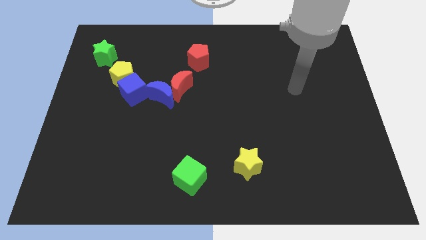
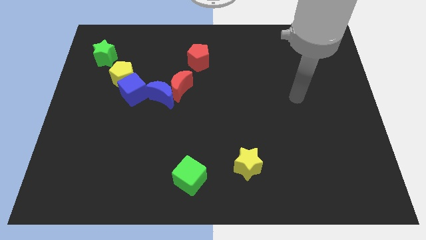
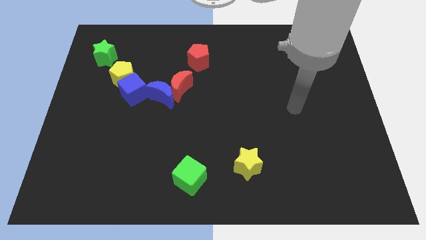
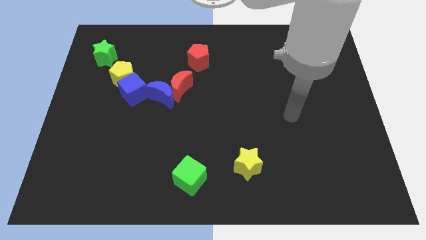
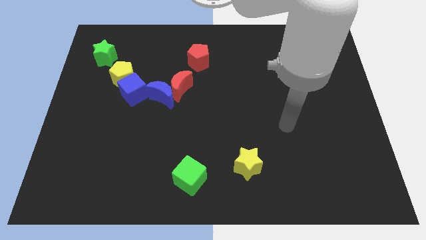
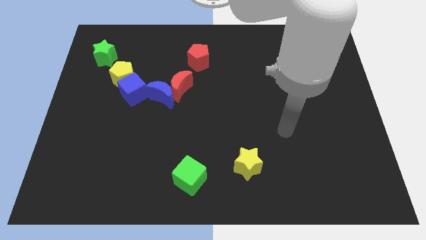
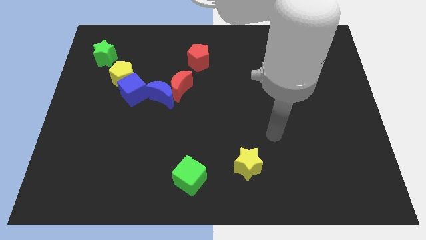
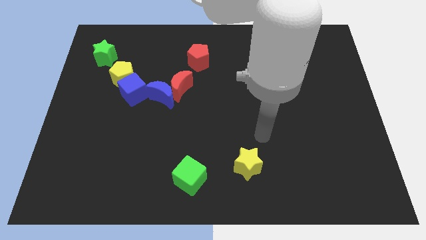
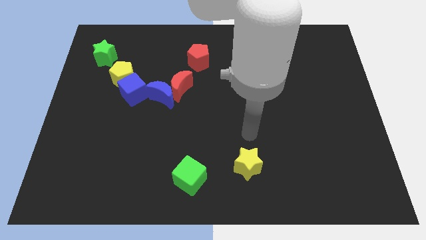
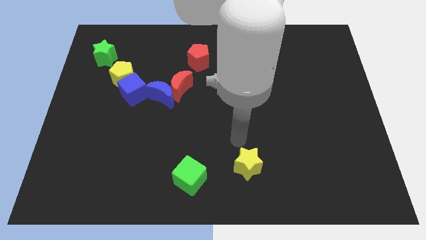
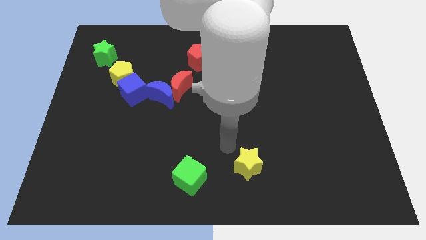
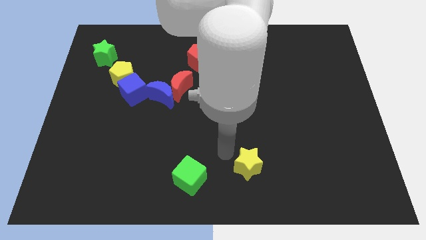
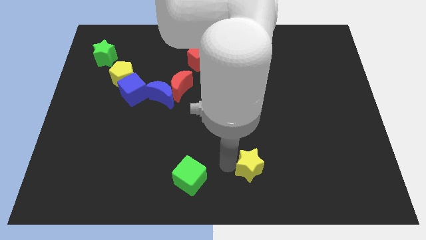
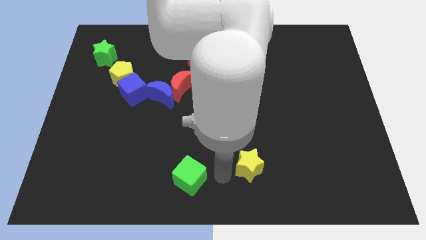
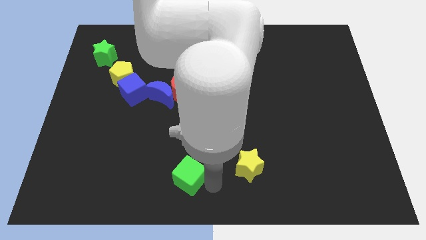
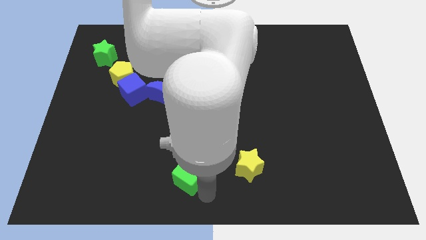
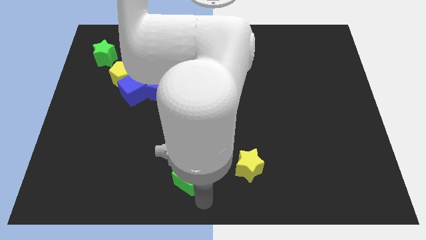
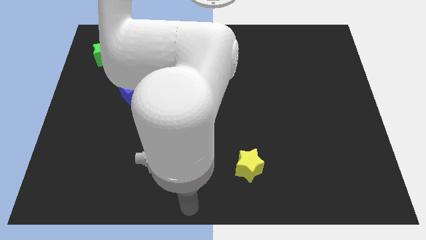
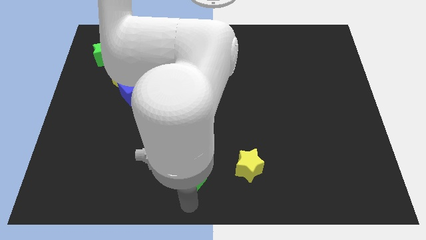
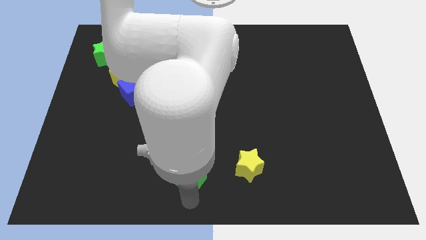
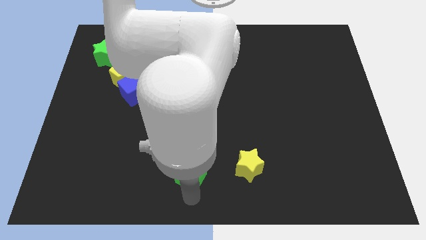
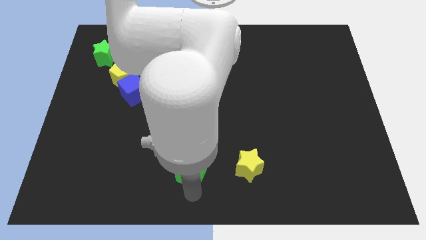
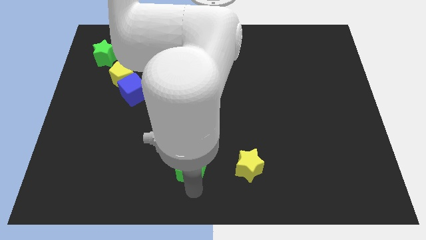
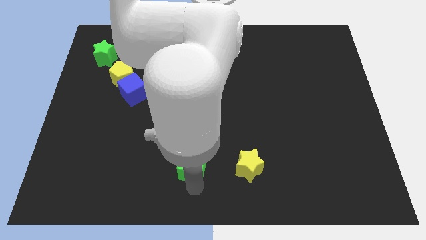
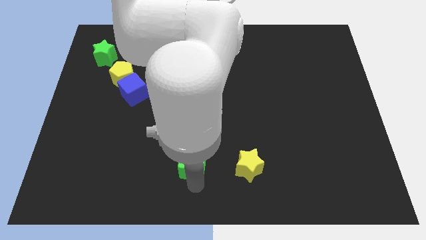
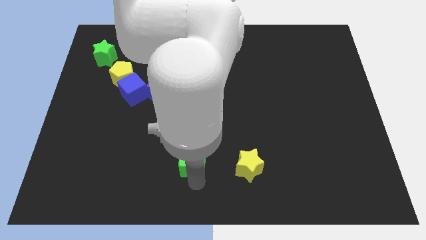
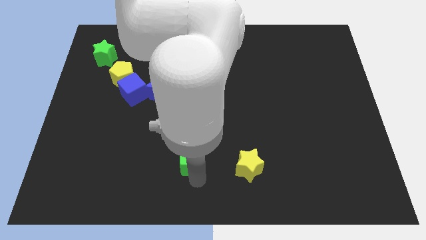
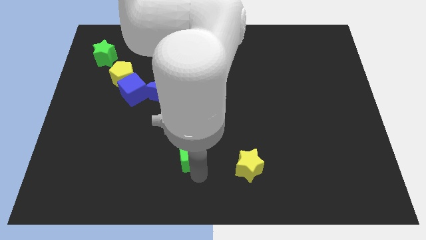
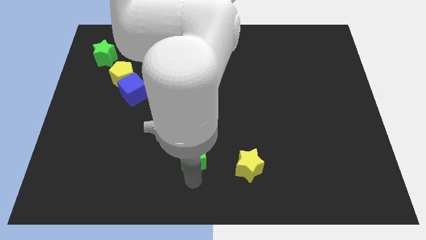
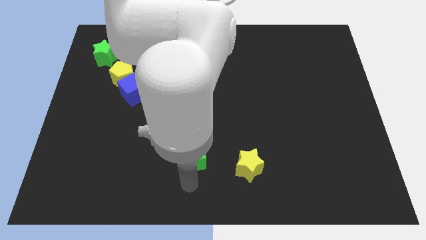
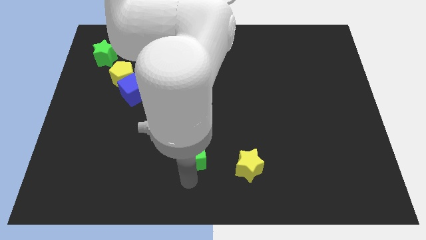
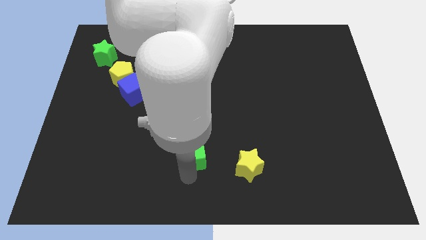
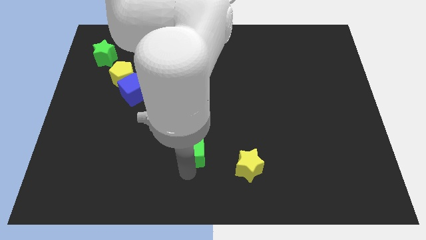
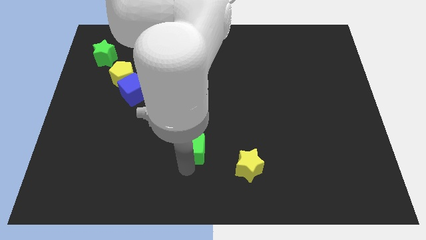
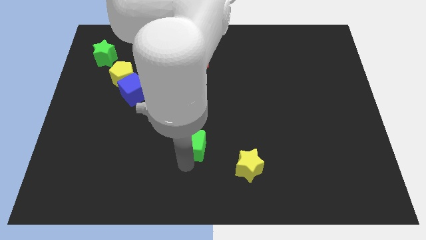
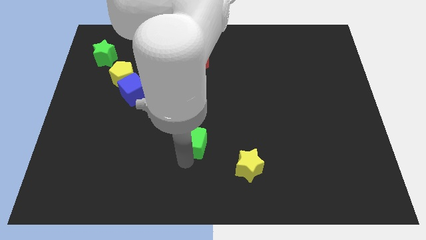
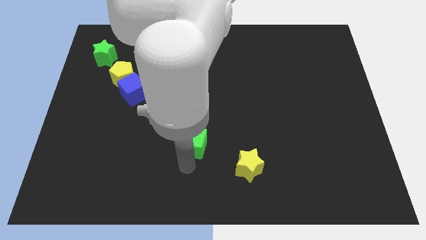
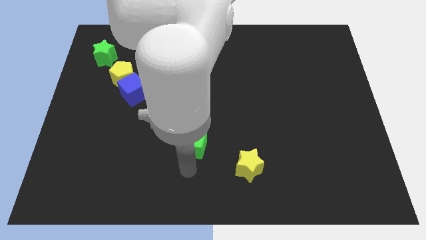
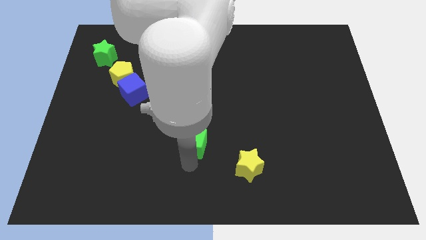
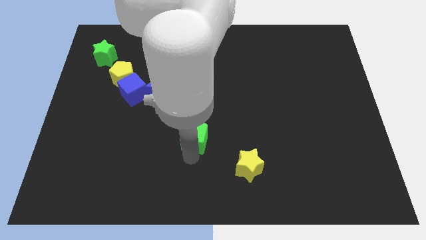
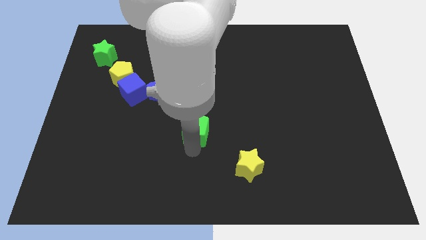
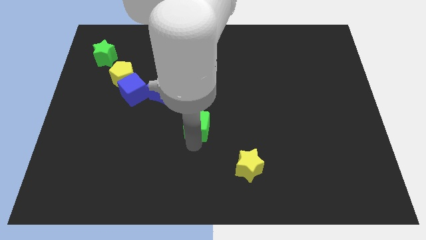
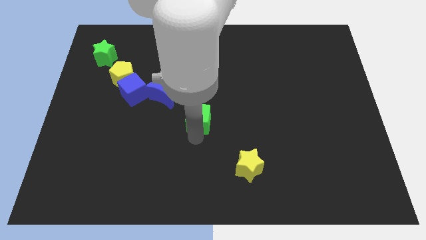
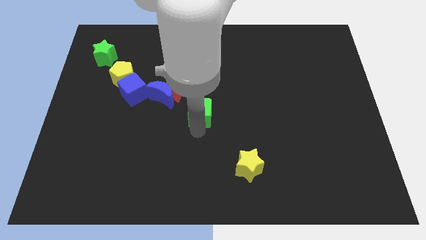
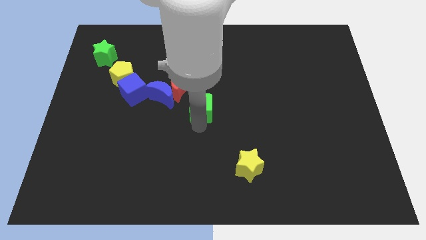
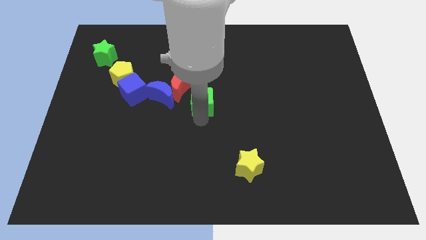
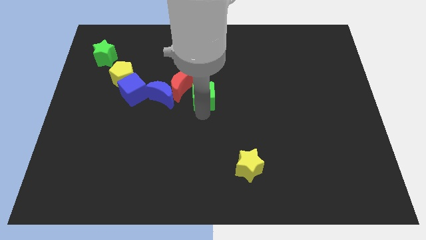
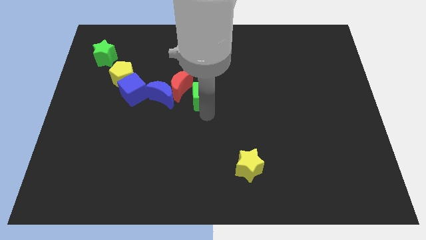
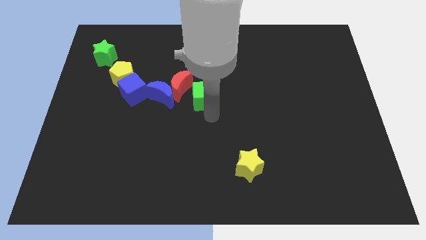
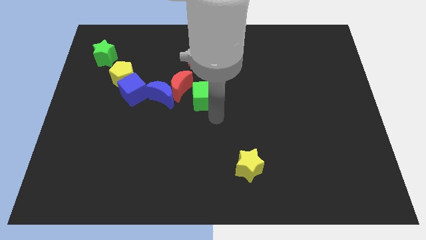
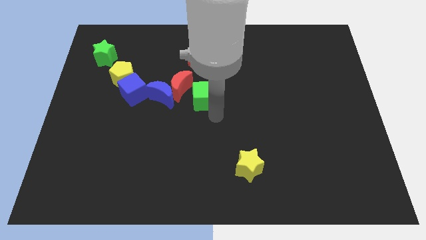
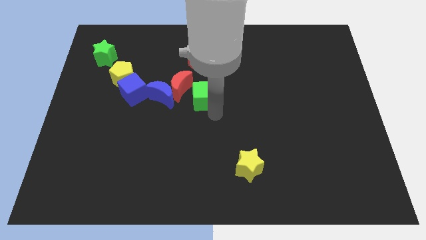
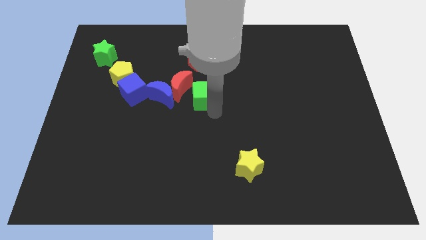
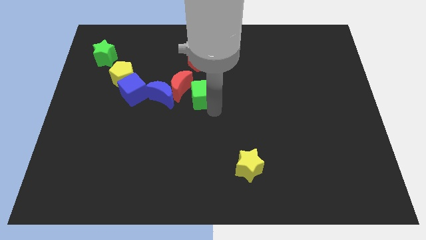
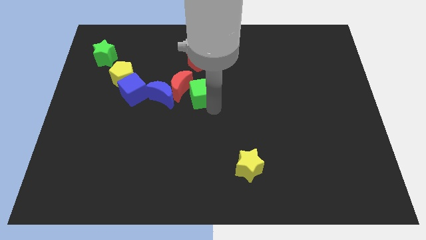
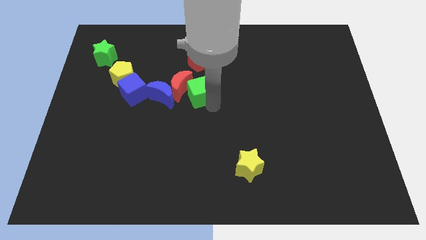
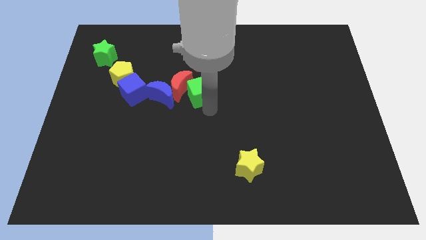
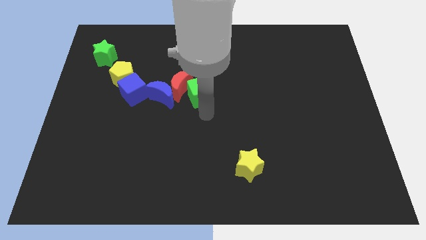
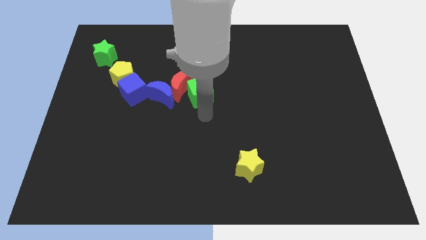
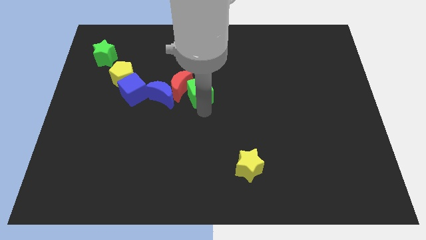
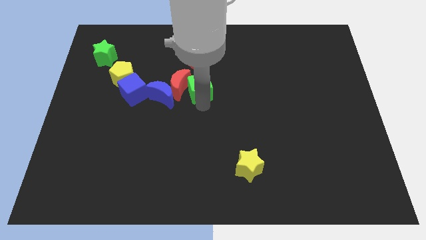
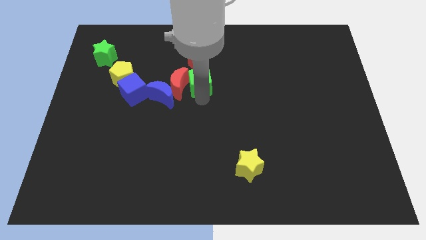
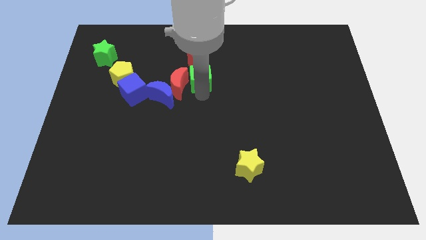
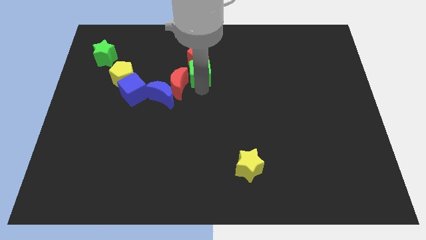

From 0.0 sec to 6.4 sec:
slide the green cube towards the red pentagon

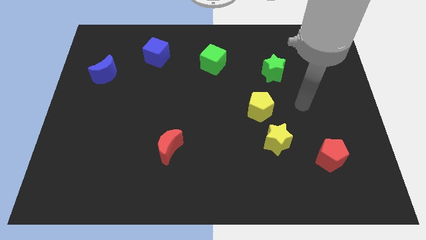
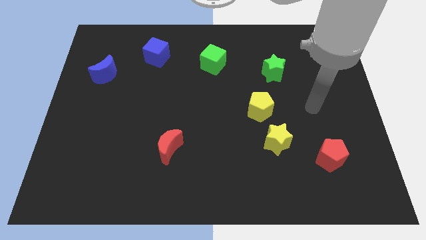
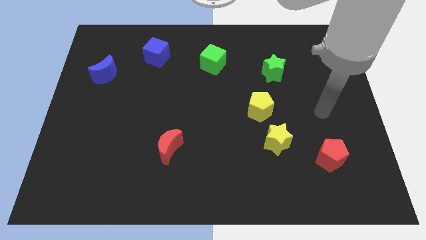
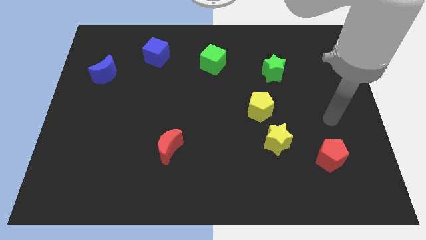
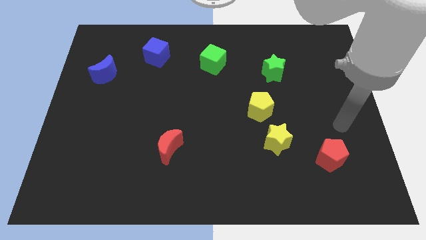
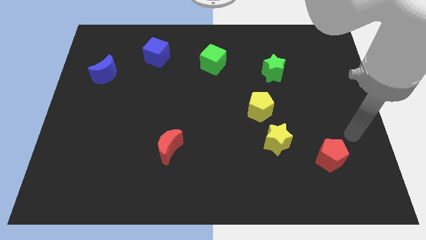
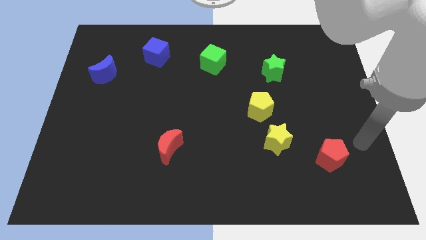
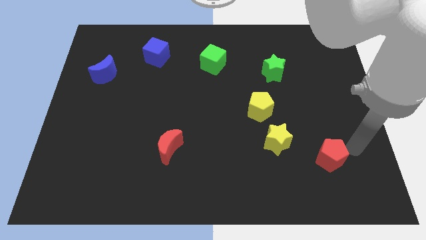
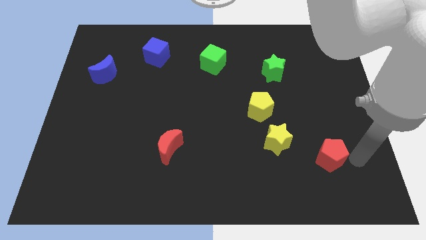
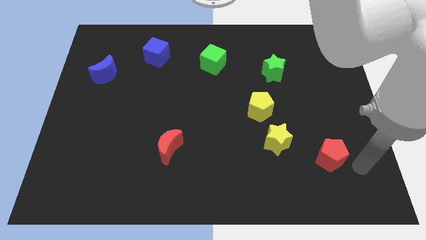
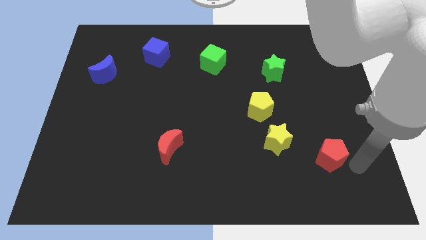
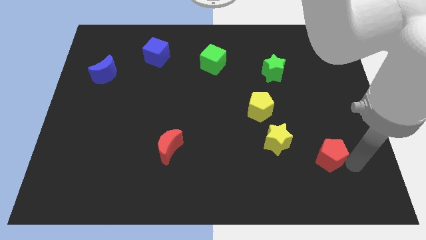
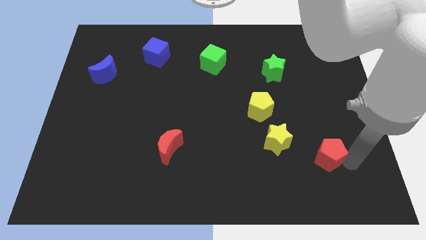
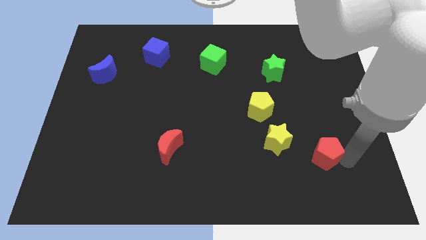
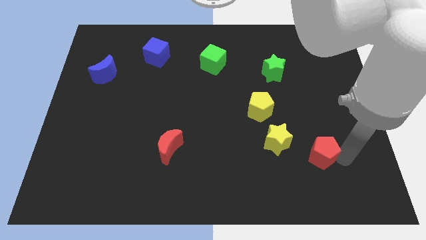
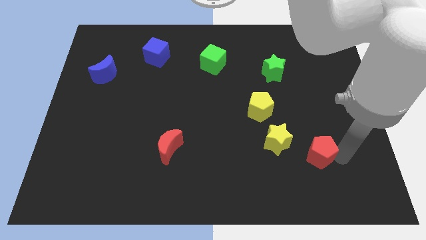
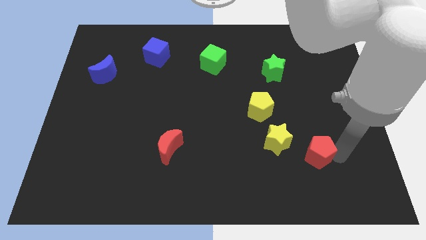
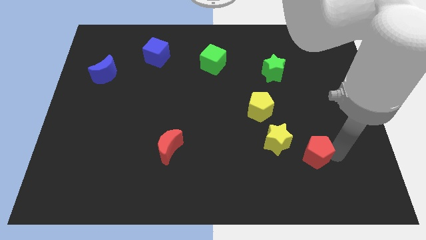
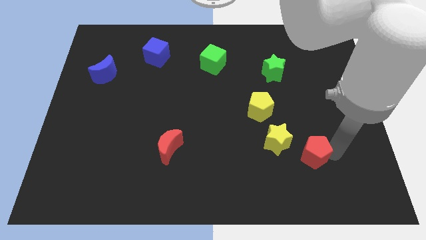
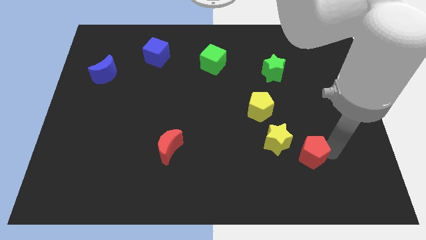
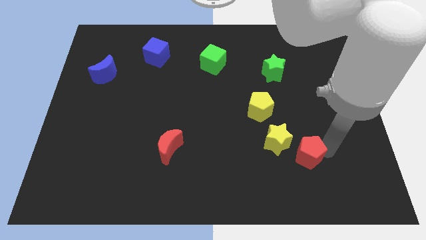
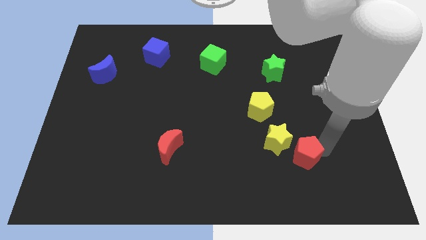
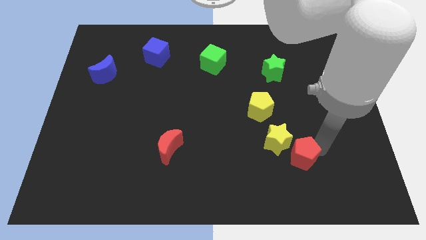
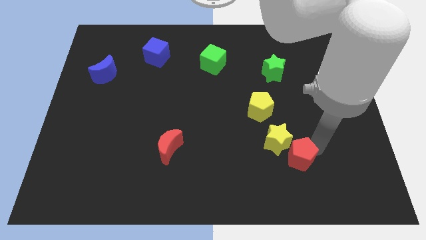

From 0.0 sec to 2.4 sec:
slide the red pentagon towards the yellow star
